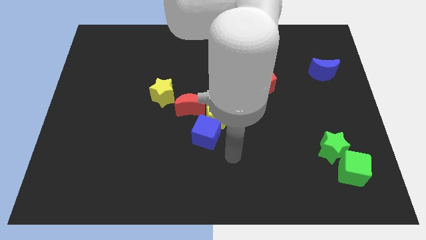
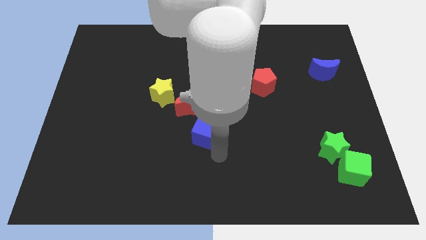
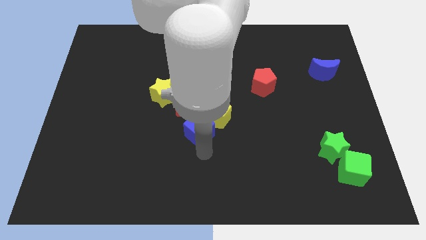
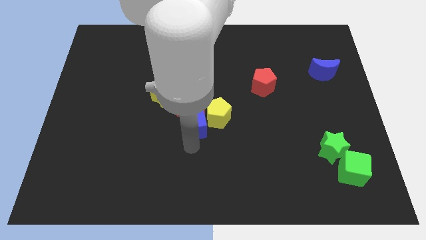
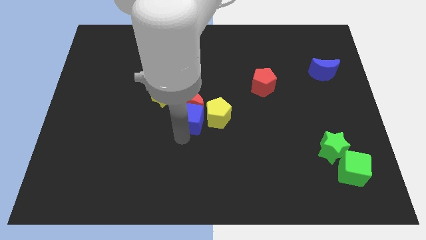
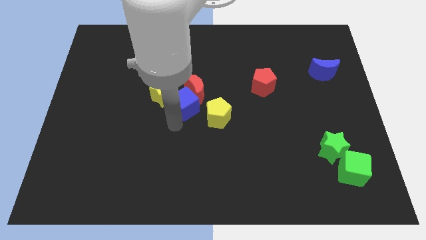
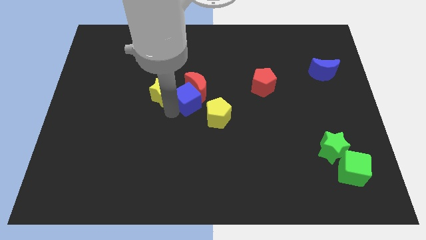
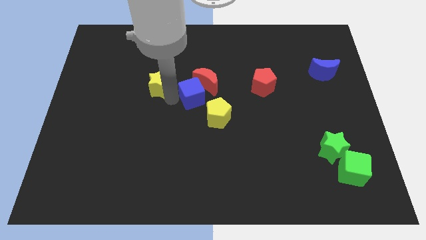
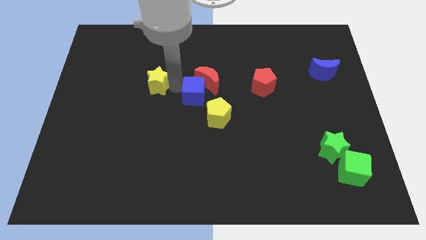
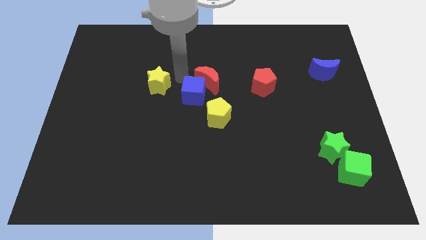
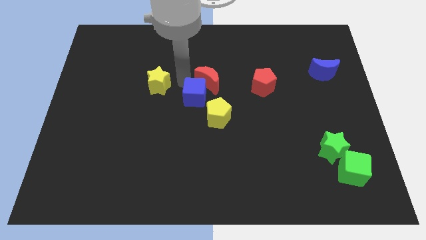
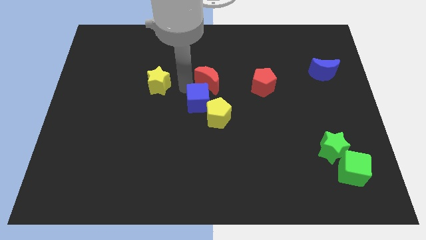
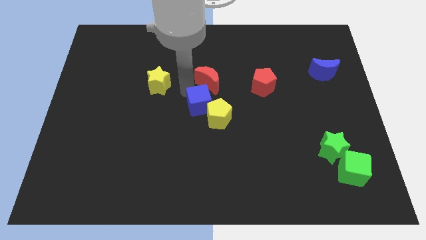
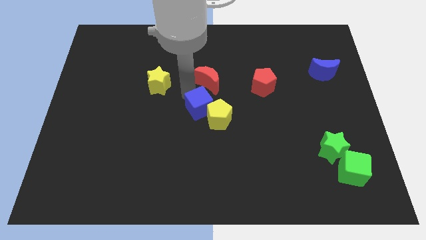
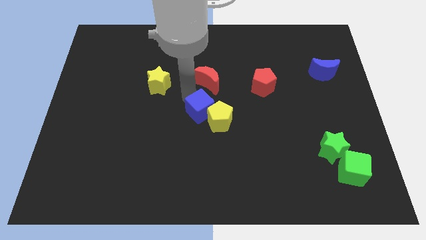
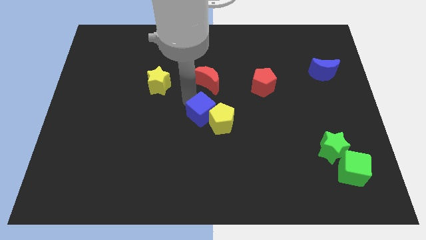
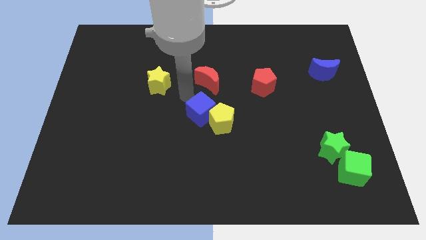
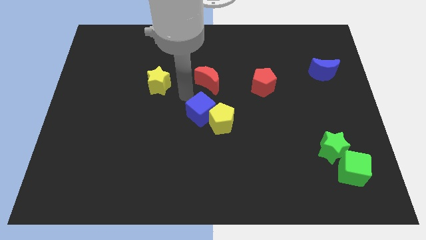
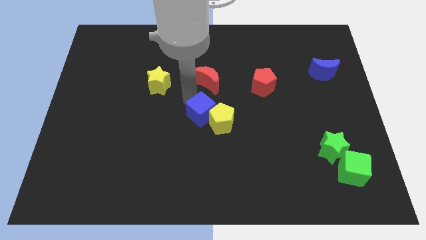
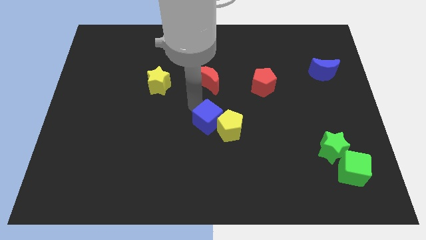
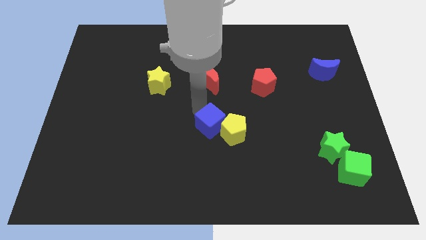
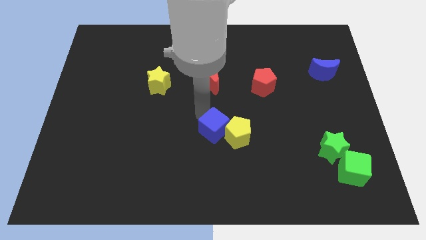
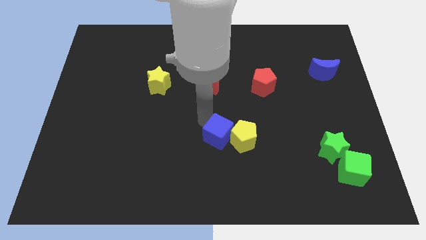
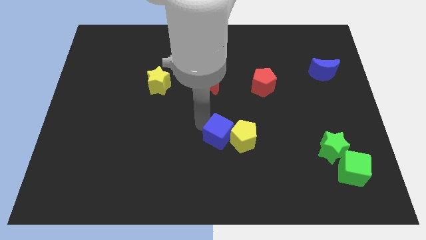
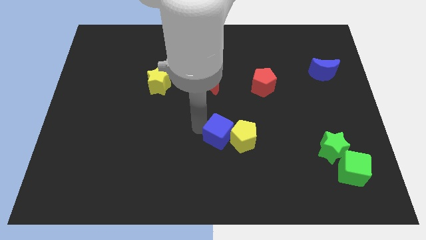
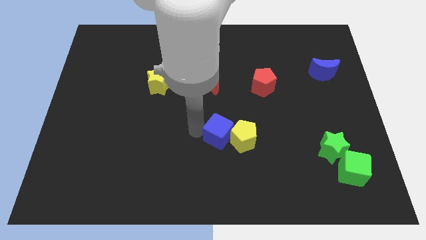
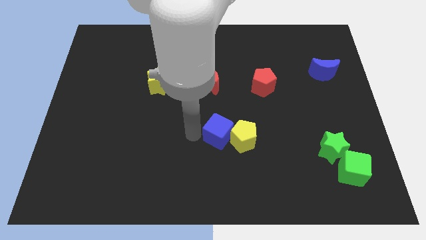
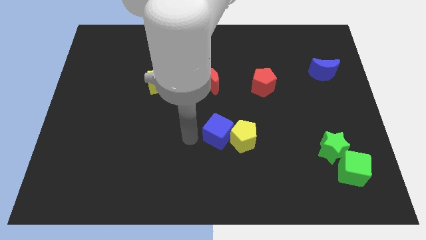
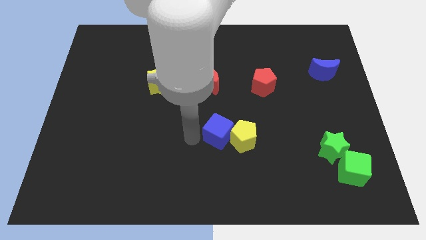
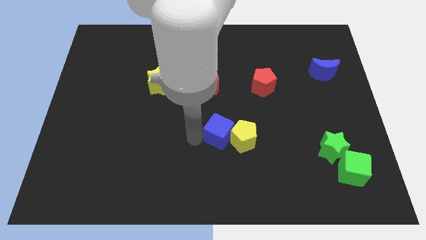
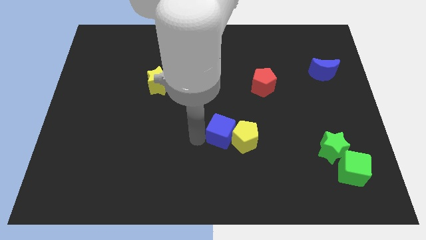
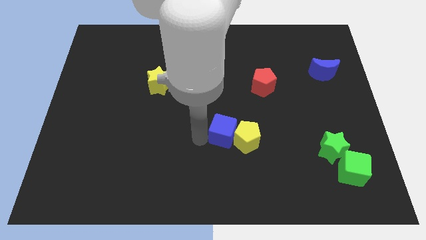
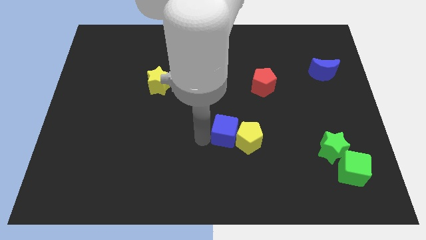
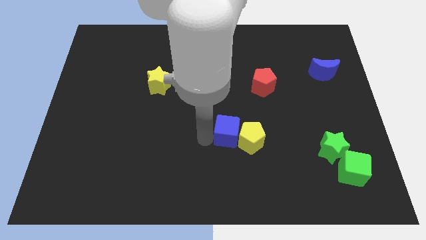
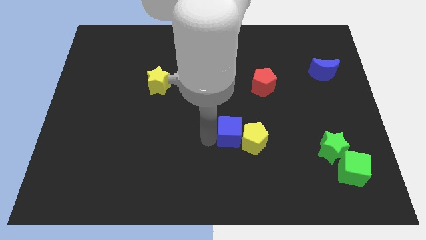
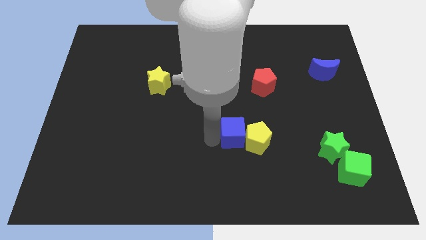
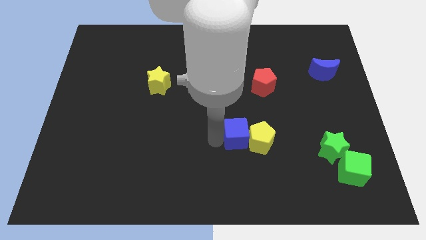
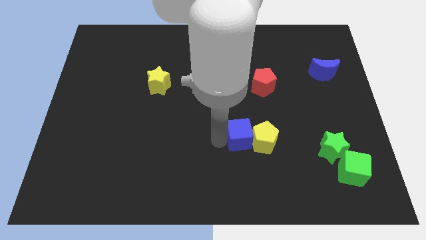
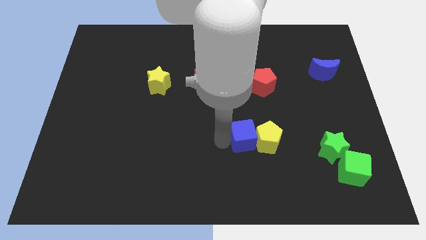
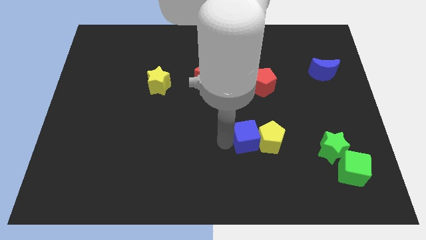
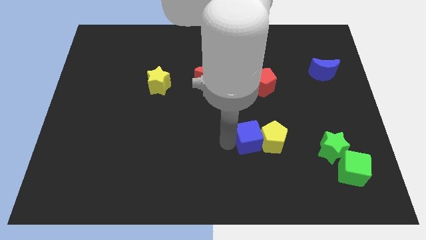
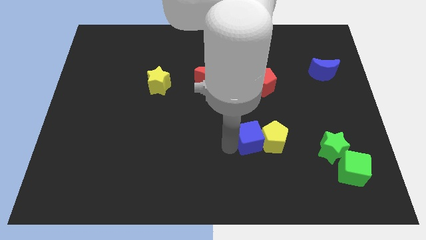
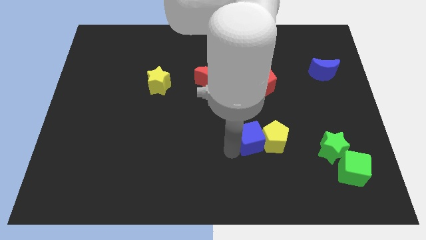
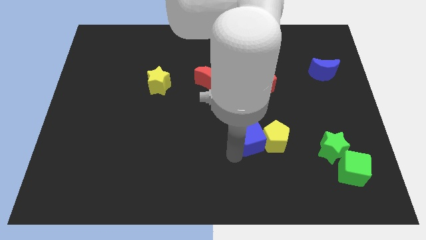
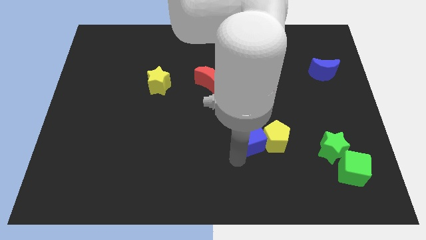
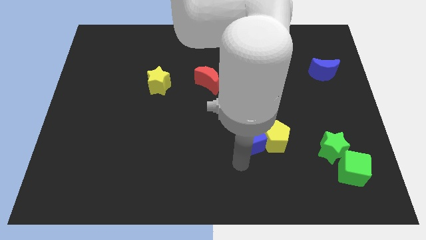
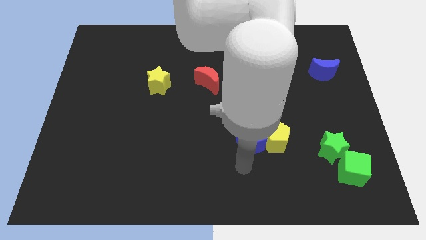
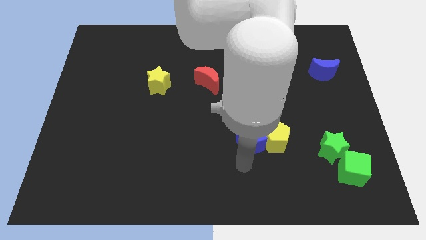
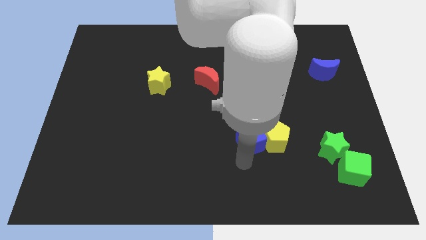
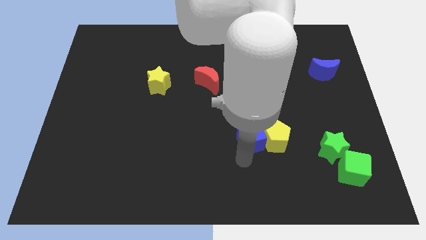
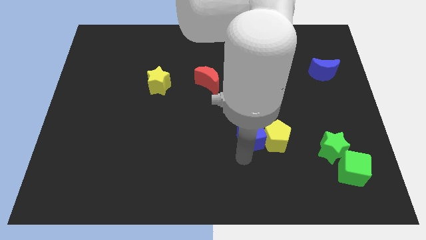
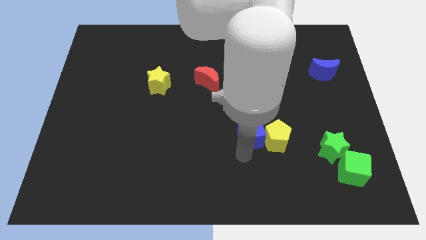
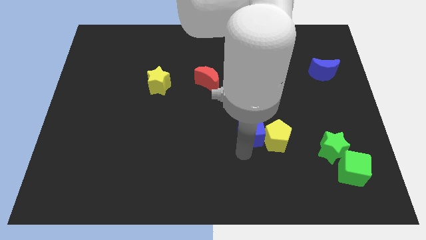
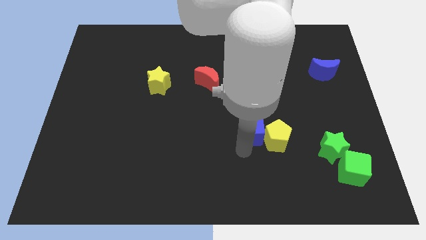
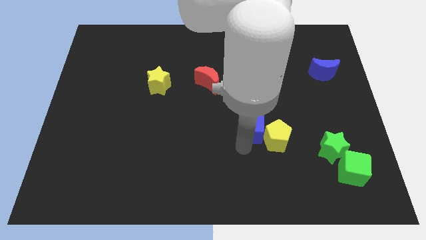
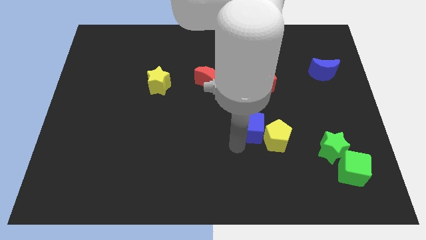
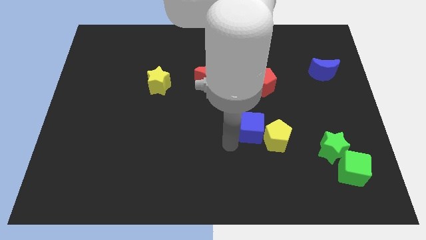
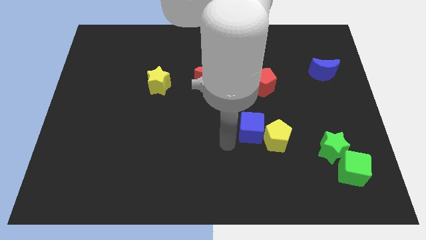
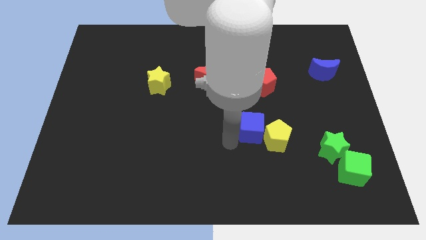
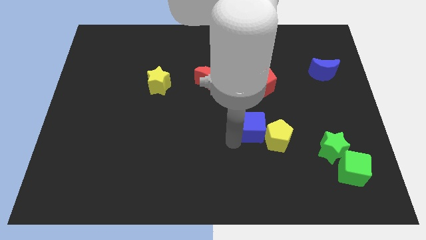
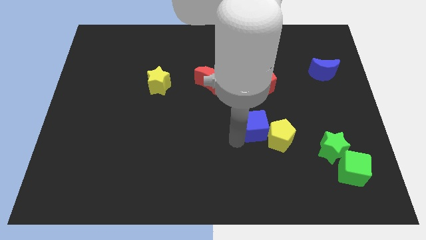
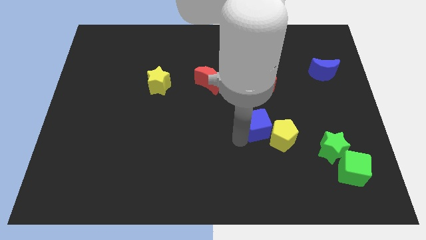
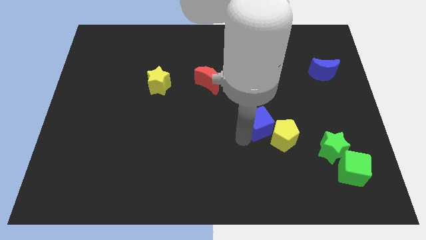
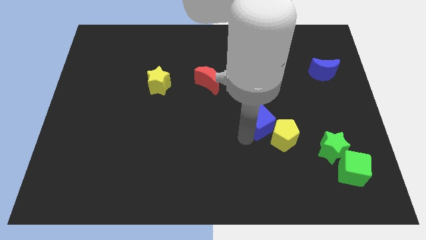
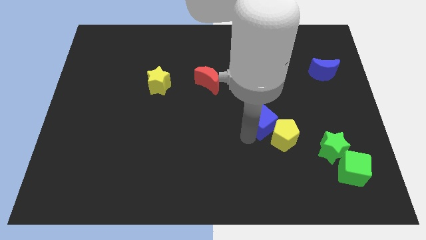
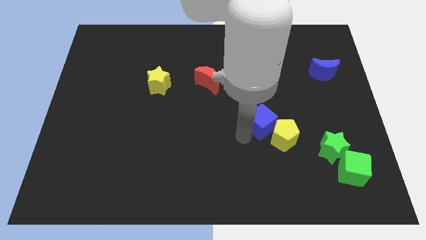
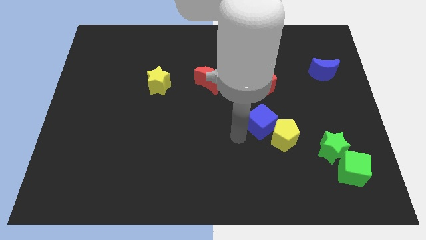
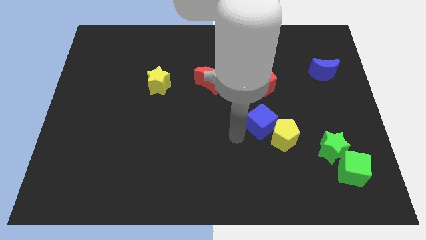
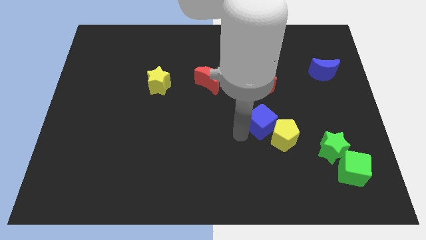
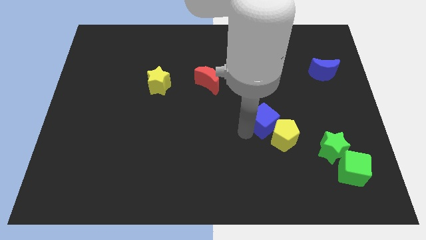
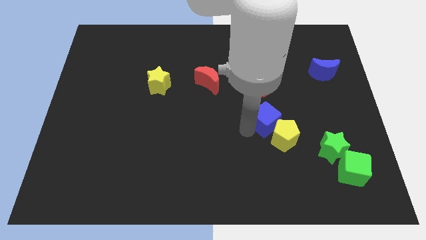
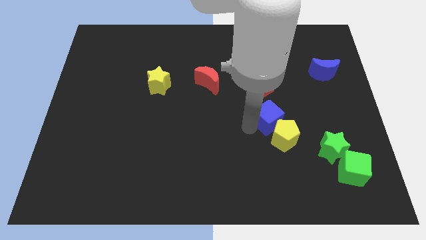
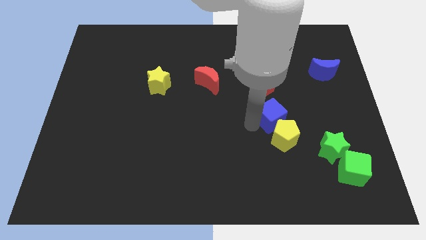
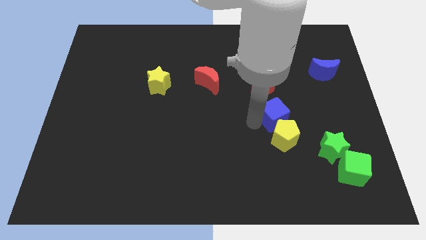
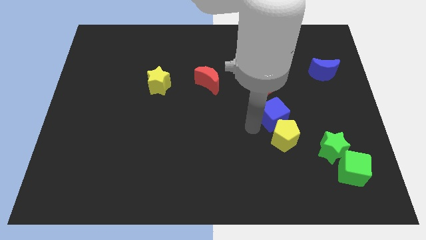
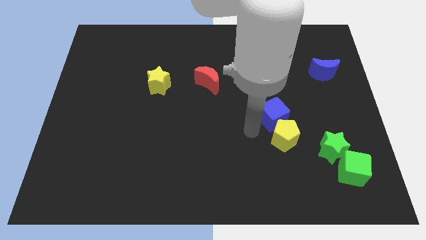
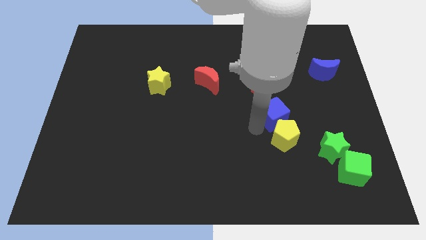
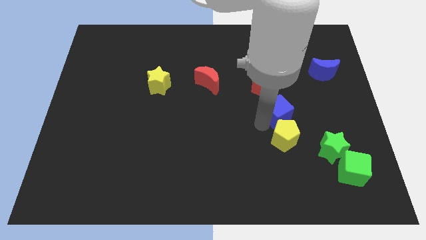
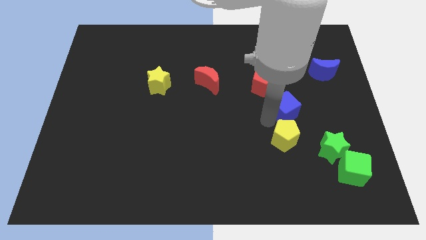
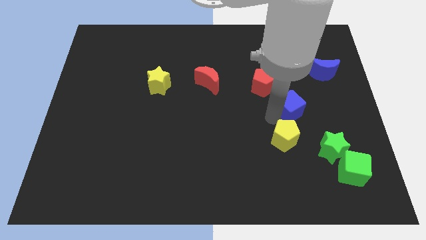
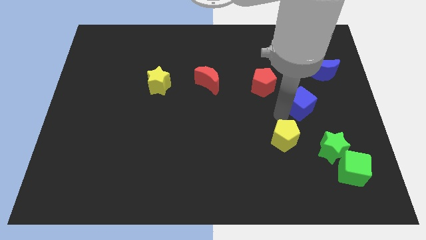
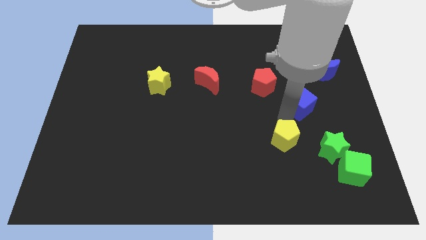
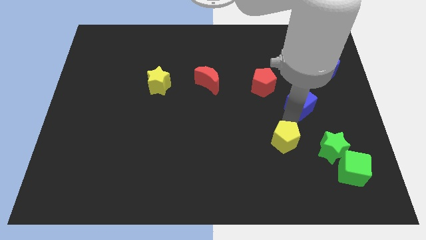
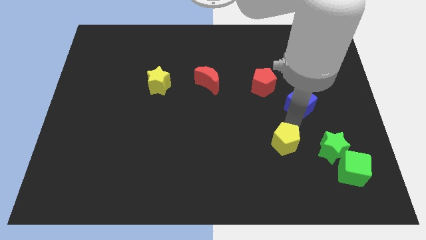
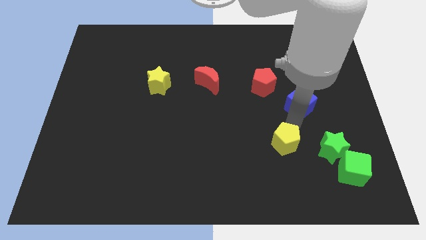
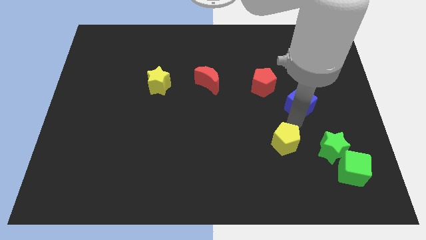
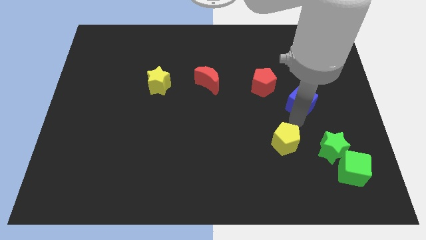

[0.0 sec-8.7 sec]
slide the blue cube to the bottom left side of the blue moon
